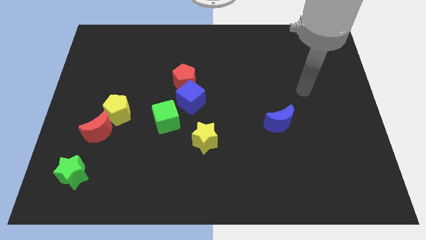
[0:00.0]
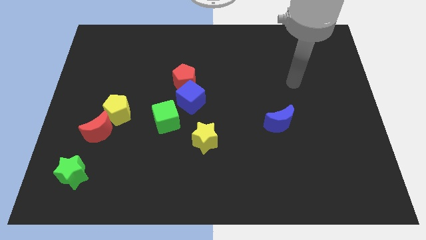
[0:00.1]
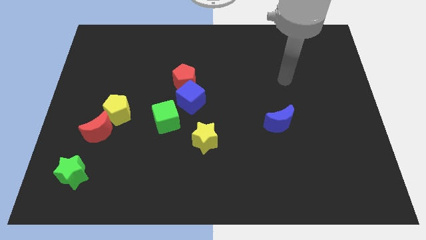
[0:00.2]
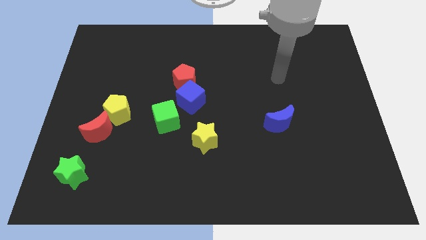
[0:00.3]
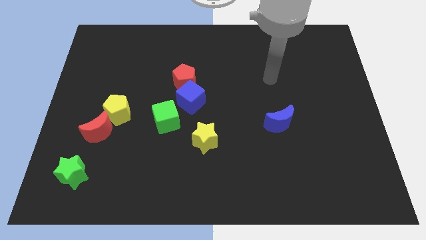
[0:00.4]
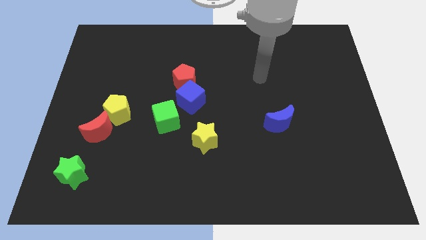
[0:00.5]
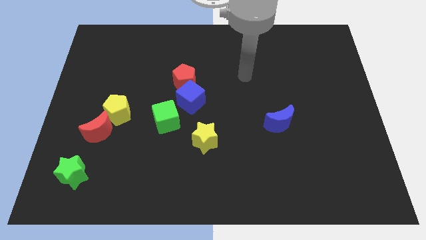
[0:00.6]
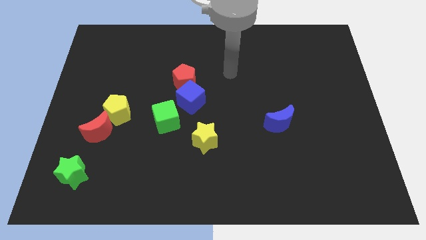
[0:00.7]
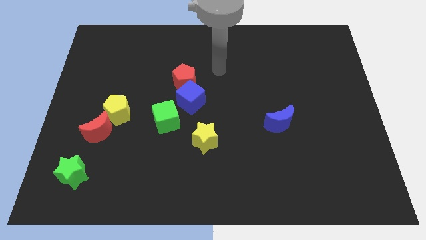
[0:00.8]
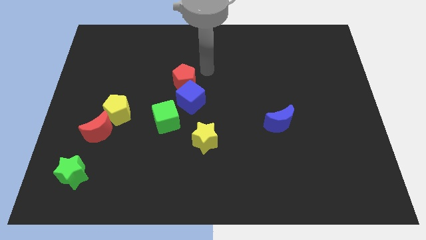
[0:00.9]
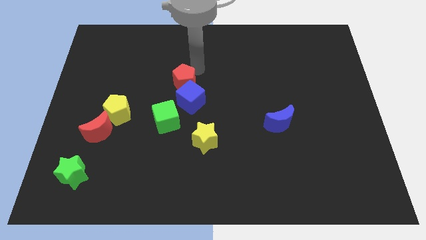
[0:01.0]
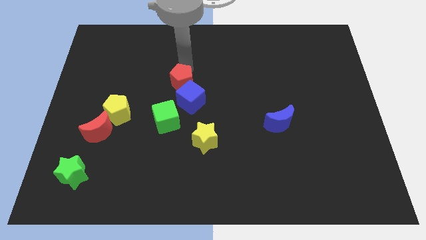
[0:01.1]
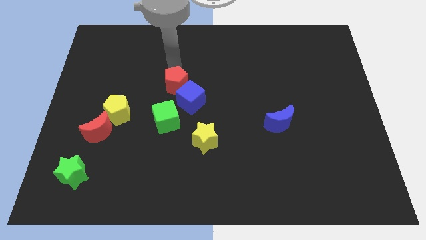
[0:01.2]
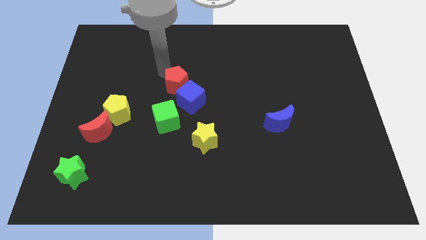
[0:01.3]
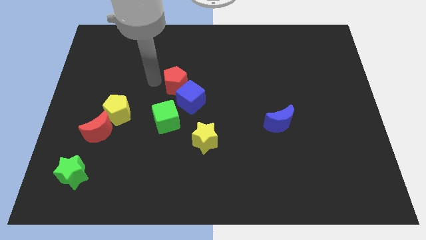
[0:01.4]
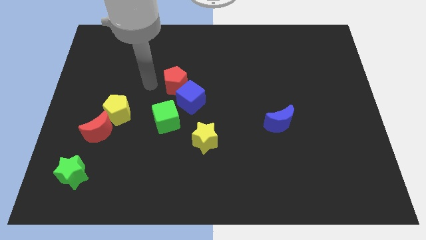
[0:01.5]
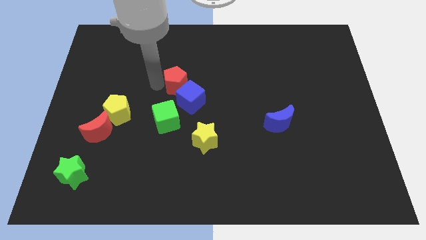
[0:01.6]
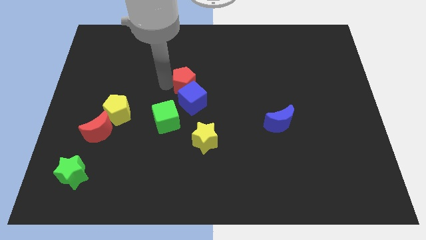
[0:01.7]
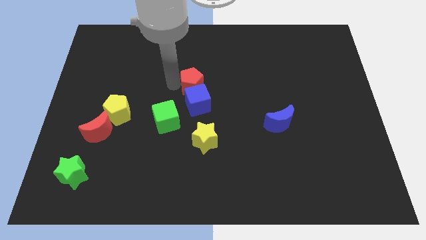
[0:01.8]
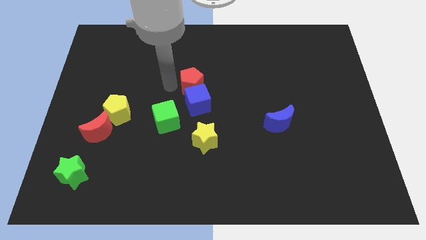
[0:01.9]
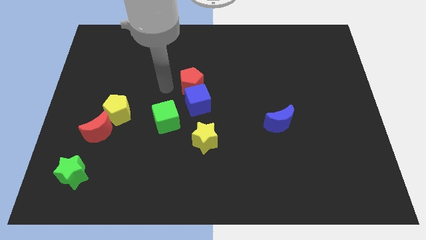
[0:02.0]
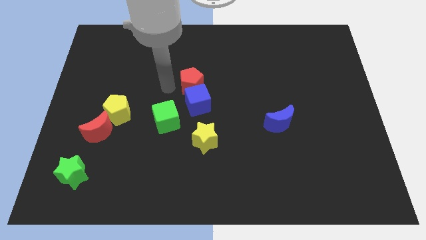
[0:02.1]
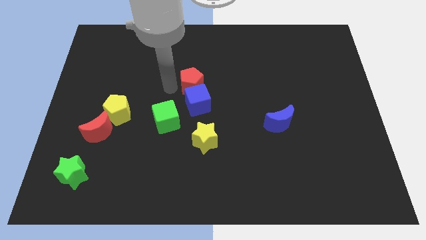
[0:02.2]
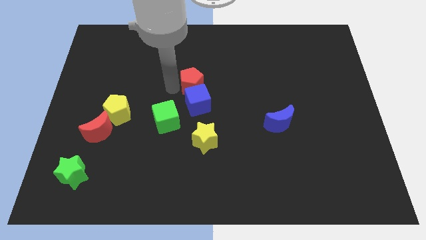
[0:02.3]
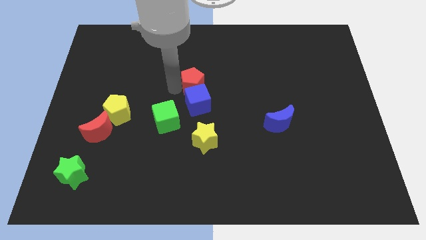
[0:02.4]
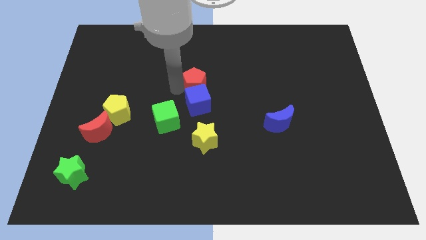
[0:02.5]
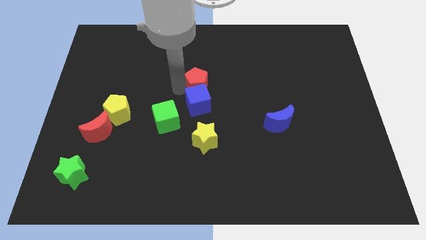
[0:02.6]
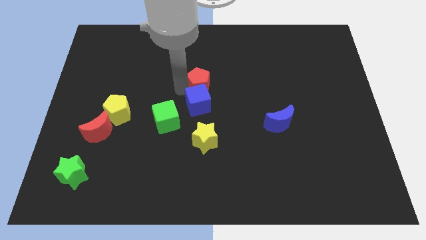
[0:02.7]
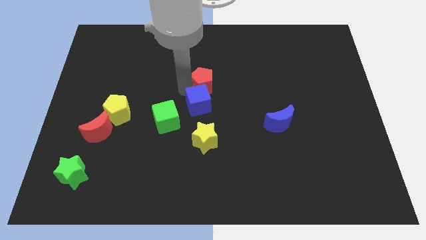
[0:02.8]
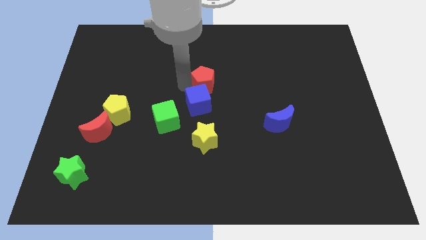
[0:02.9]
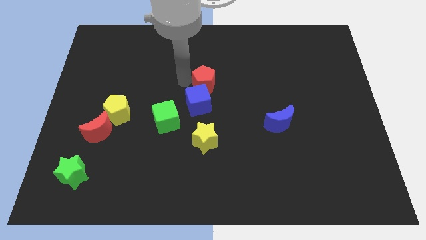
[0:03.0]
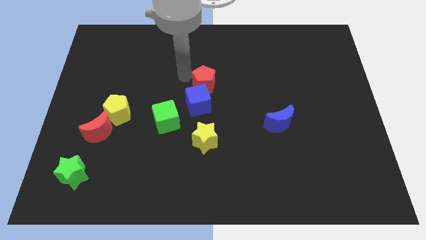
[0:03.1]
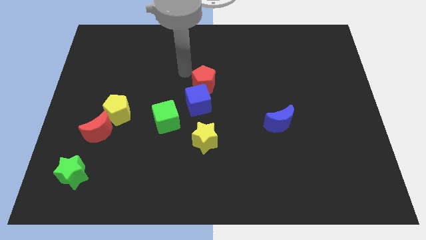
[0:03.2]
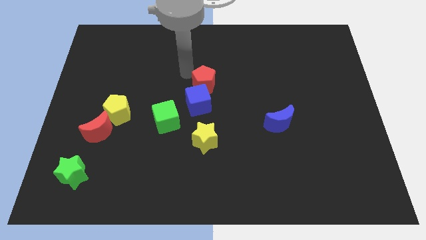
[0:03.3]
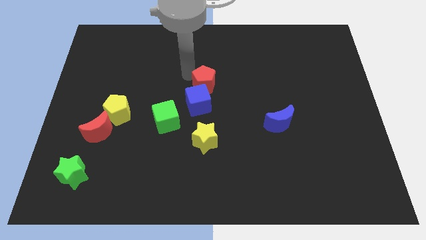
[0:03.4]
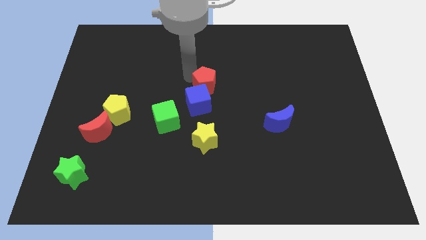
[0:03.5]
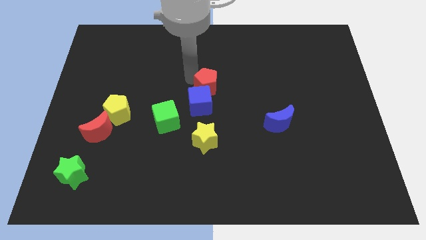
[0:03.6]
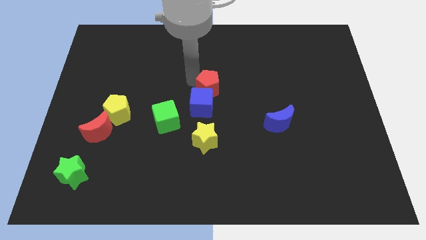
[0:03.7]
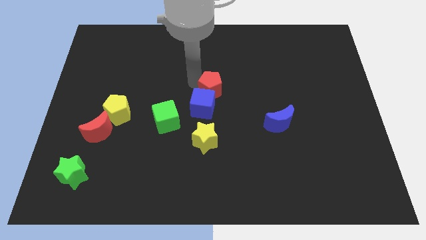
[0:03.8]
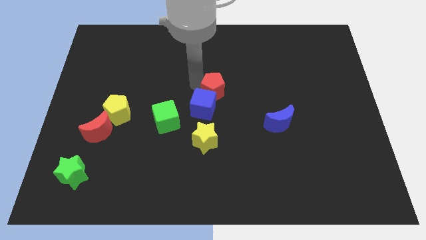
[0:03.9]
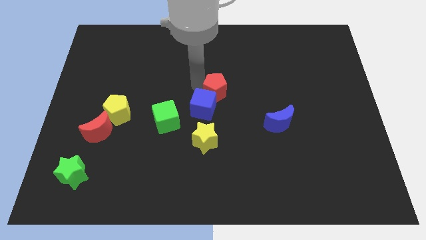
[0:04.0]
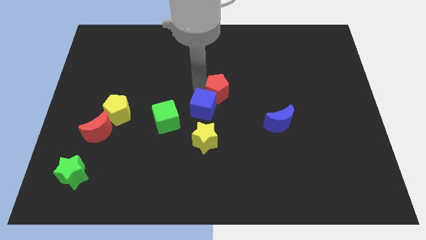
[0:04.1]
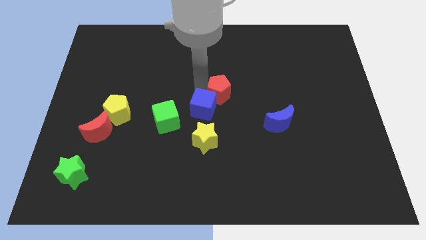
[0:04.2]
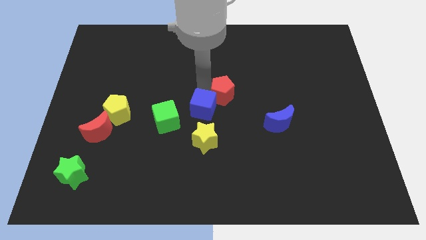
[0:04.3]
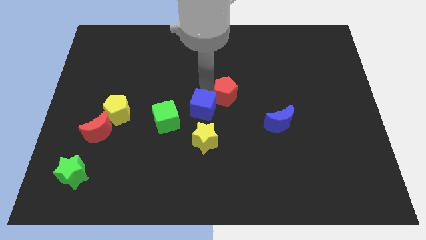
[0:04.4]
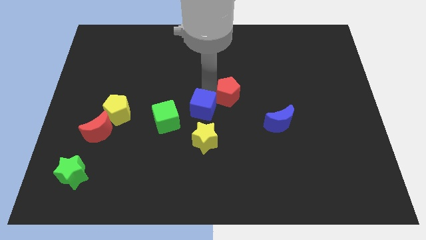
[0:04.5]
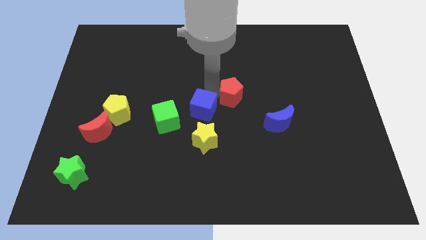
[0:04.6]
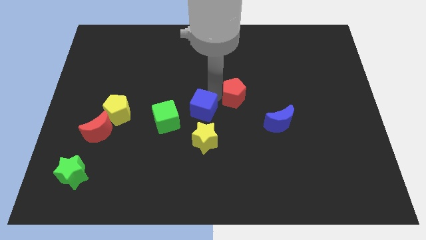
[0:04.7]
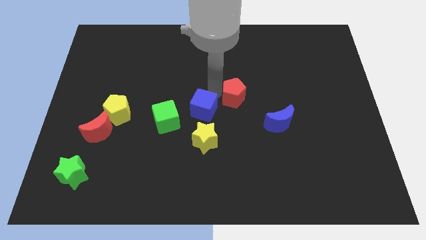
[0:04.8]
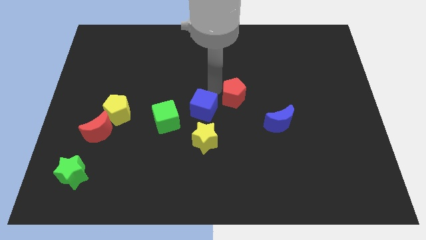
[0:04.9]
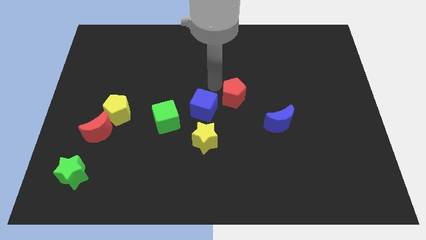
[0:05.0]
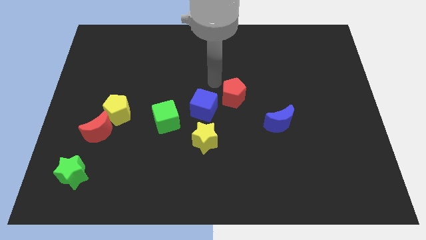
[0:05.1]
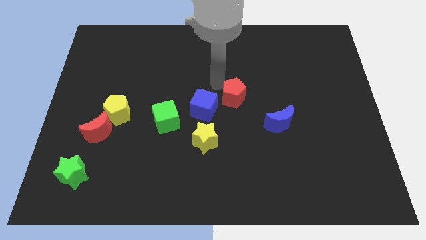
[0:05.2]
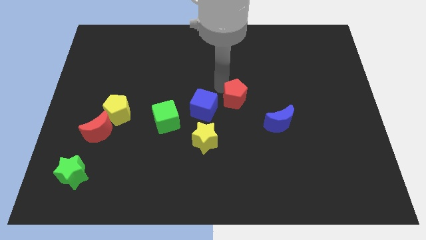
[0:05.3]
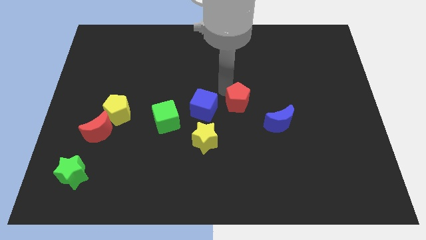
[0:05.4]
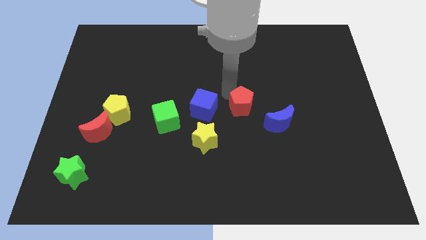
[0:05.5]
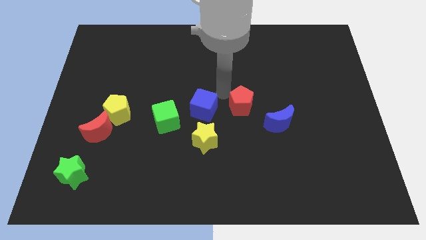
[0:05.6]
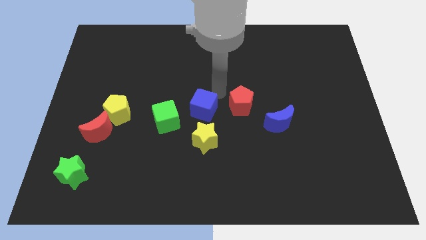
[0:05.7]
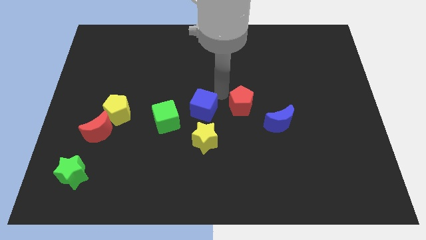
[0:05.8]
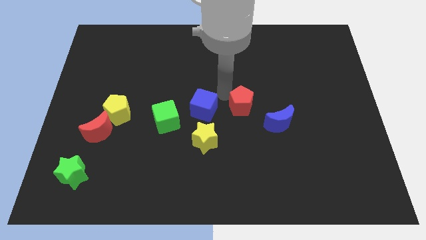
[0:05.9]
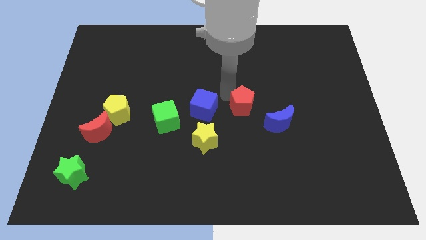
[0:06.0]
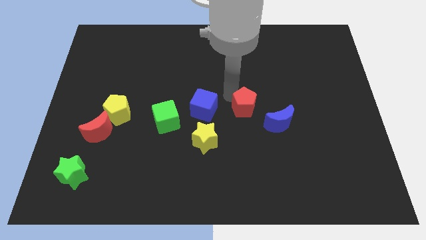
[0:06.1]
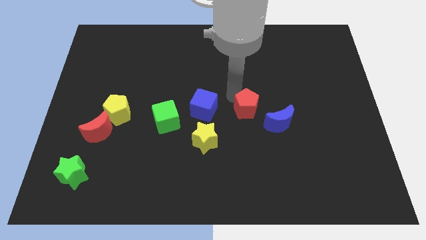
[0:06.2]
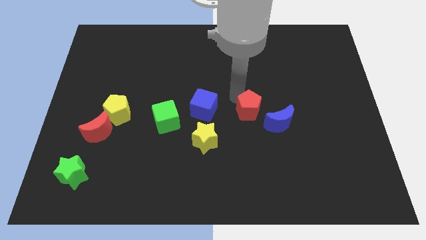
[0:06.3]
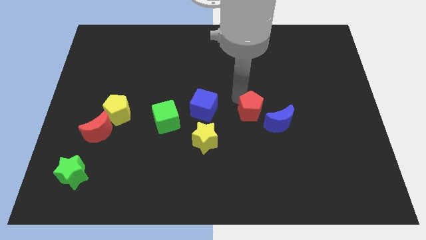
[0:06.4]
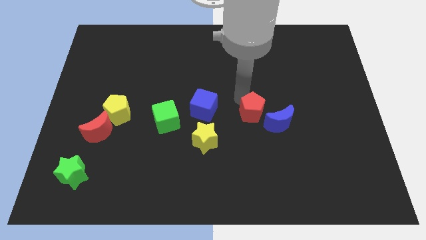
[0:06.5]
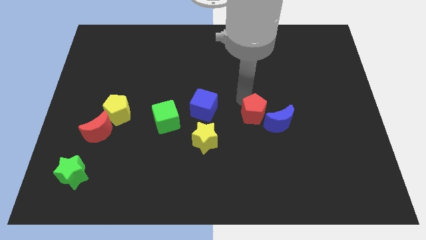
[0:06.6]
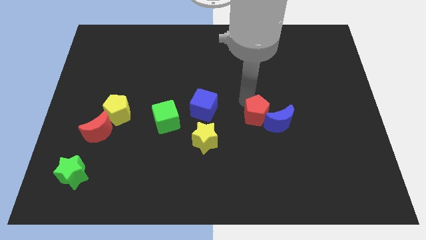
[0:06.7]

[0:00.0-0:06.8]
push the red pentagon towards the blue moon
